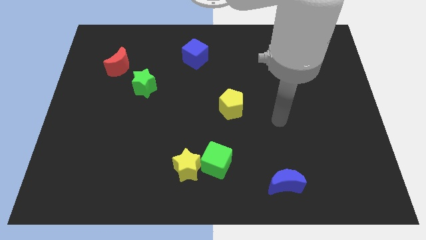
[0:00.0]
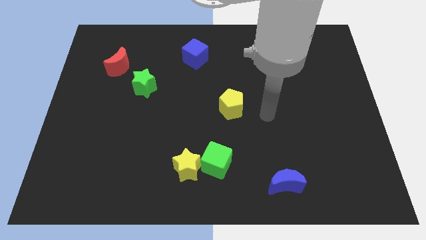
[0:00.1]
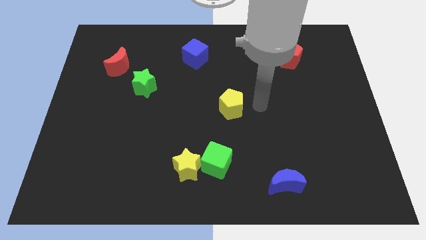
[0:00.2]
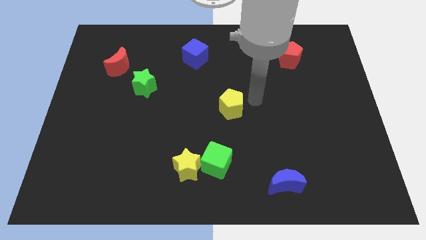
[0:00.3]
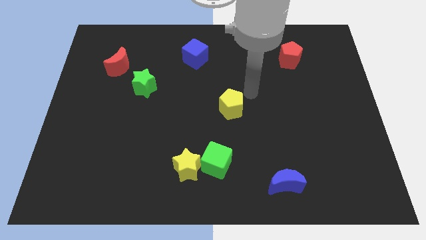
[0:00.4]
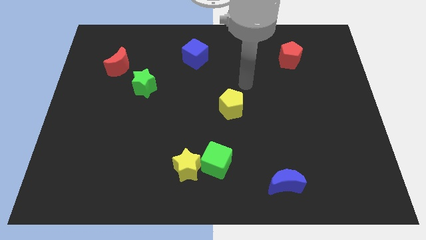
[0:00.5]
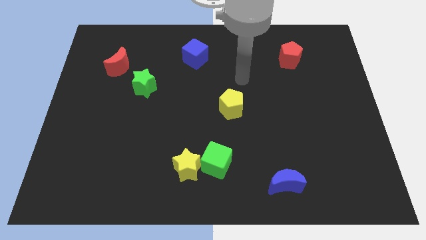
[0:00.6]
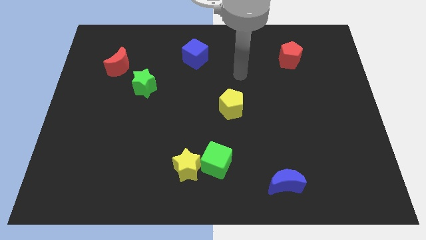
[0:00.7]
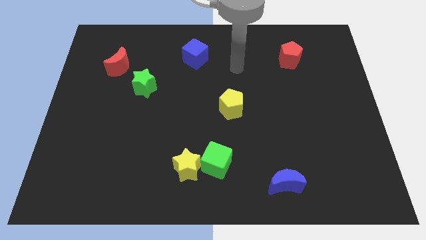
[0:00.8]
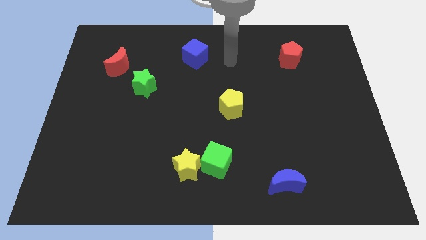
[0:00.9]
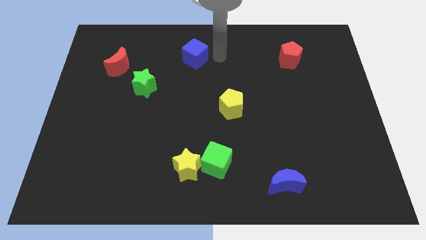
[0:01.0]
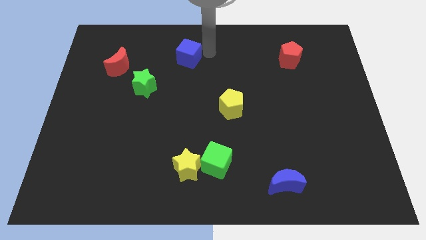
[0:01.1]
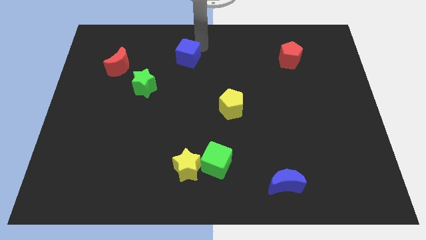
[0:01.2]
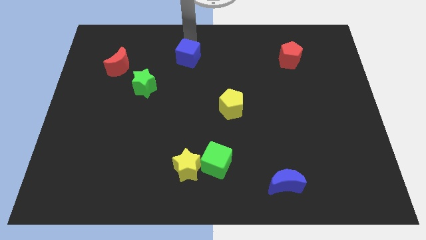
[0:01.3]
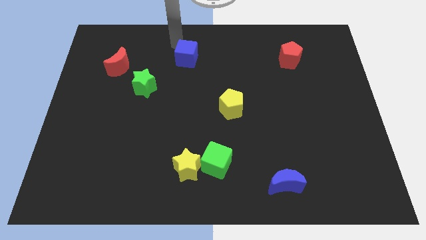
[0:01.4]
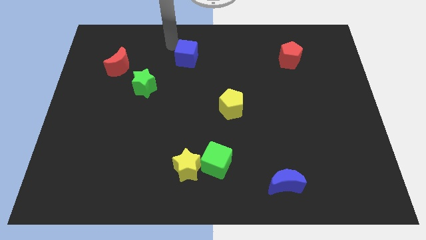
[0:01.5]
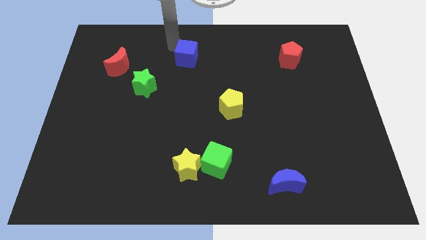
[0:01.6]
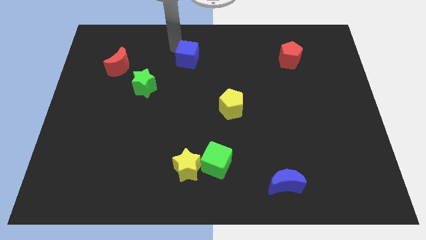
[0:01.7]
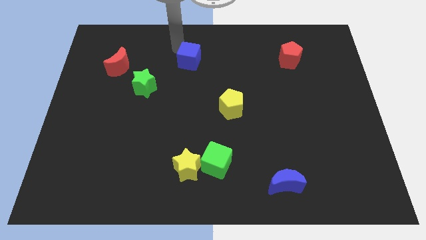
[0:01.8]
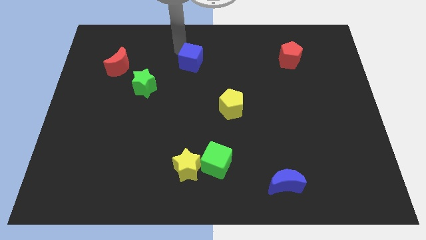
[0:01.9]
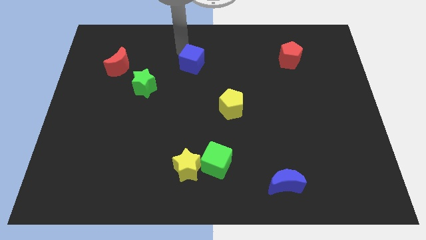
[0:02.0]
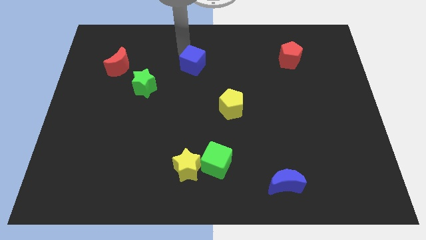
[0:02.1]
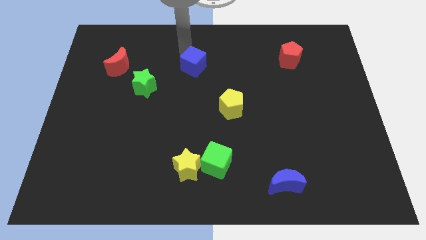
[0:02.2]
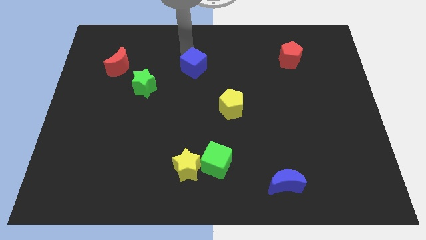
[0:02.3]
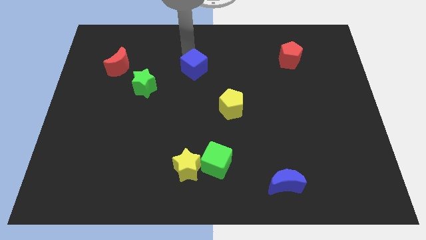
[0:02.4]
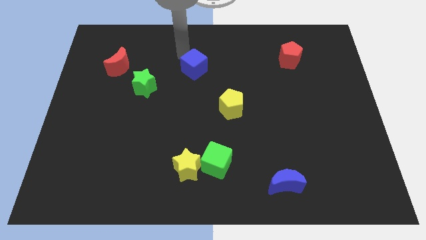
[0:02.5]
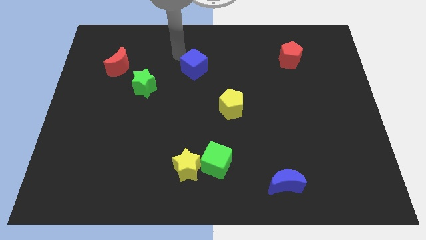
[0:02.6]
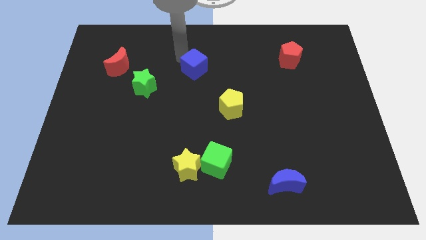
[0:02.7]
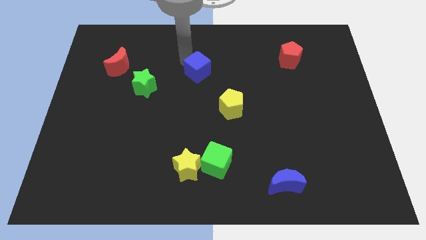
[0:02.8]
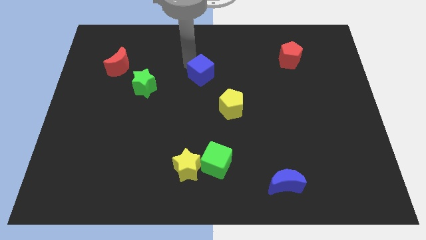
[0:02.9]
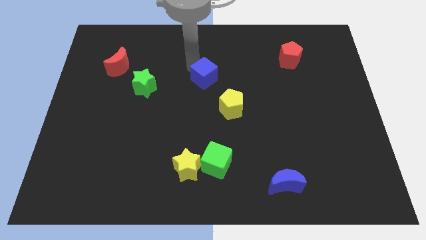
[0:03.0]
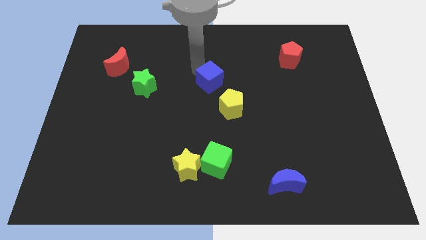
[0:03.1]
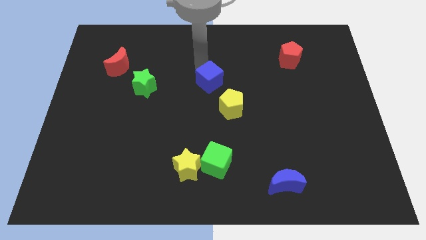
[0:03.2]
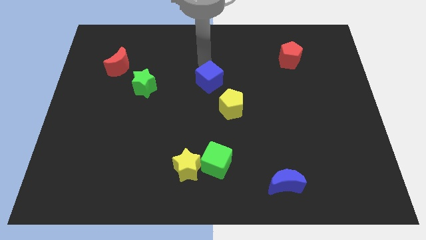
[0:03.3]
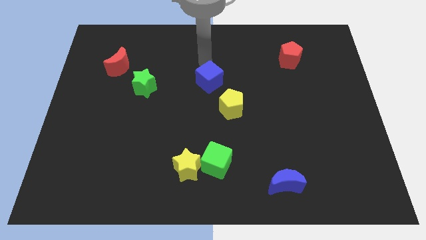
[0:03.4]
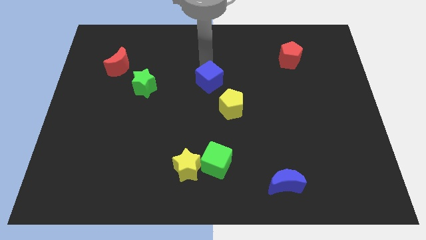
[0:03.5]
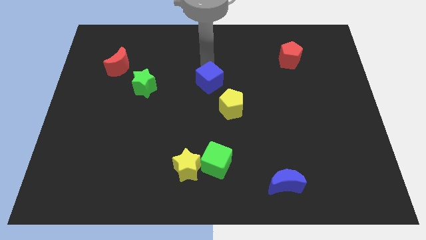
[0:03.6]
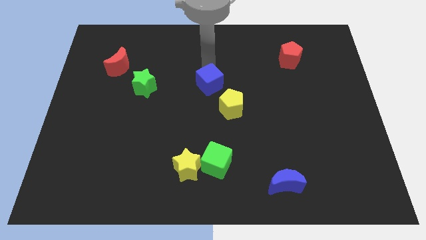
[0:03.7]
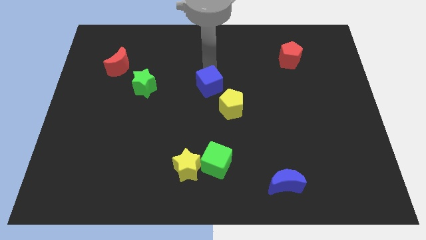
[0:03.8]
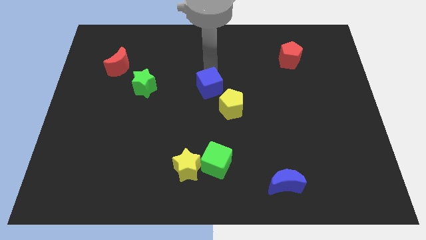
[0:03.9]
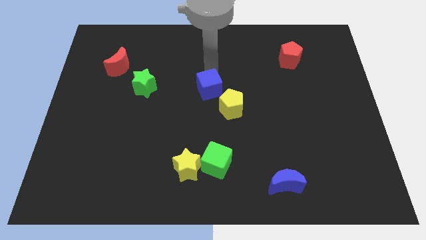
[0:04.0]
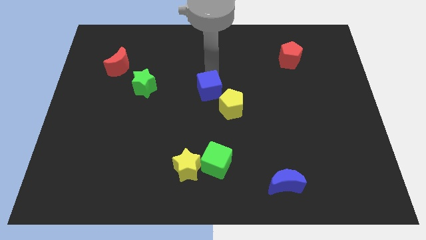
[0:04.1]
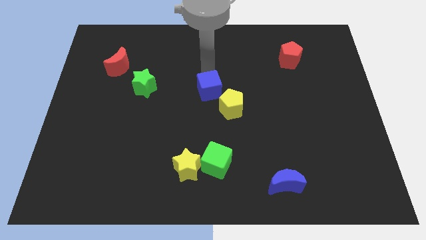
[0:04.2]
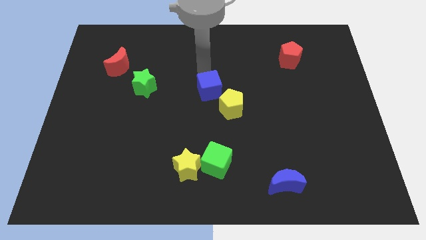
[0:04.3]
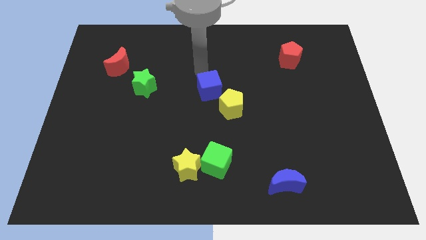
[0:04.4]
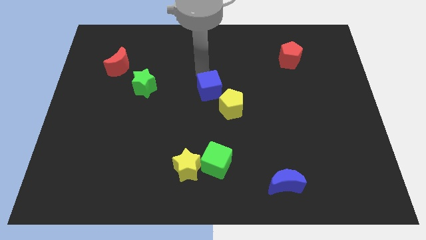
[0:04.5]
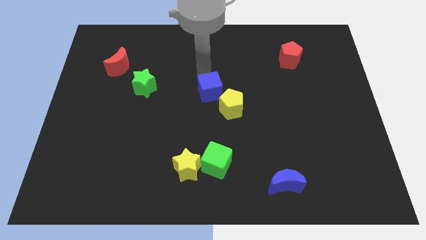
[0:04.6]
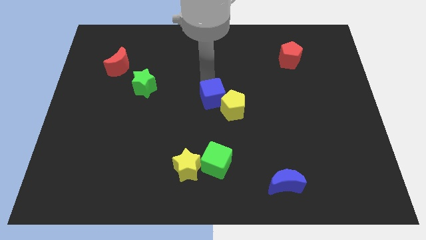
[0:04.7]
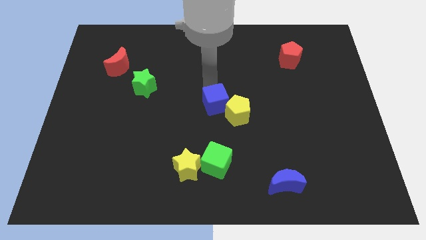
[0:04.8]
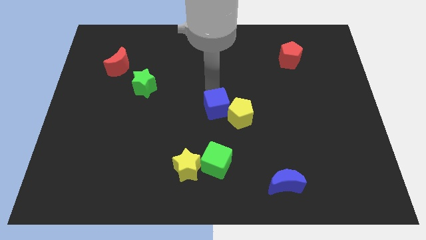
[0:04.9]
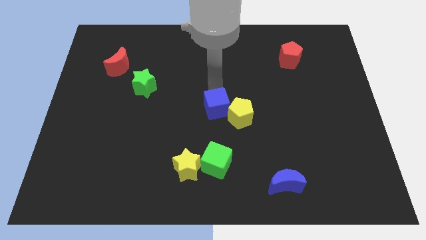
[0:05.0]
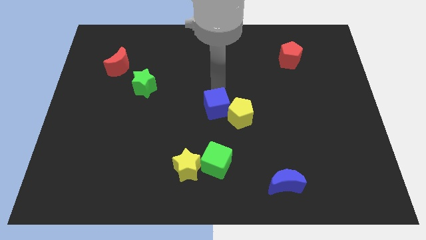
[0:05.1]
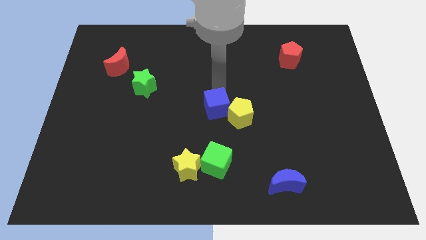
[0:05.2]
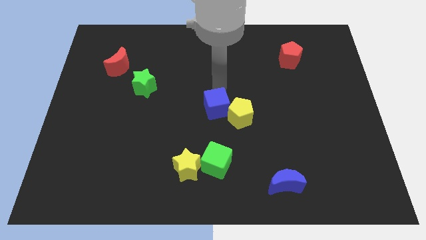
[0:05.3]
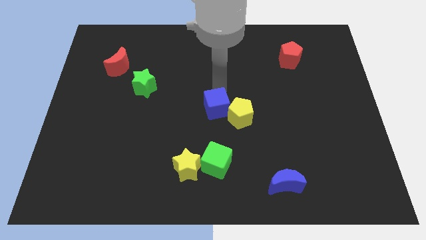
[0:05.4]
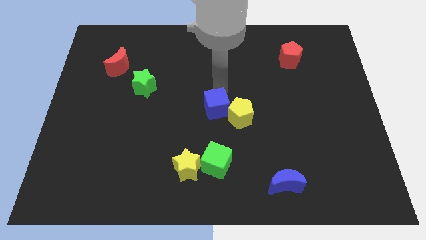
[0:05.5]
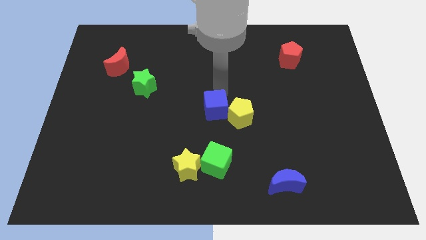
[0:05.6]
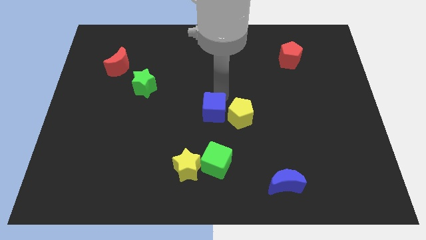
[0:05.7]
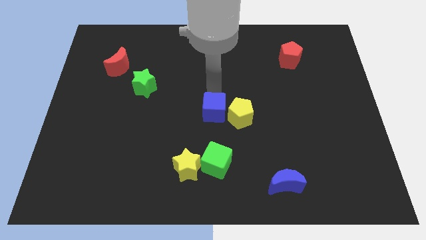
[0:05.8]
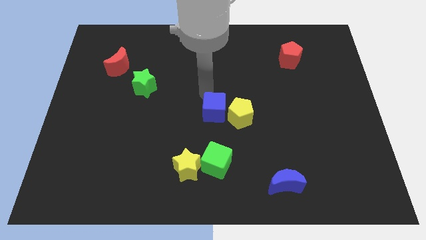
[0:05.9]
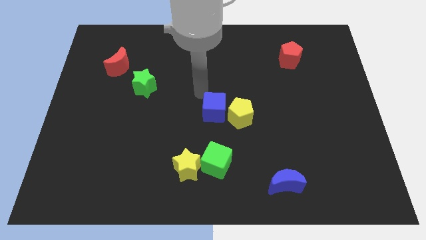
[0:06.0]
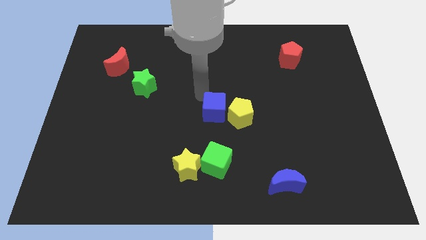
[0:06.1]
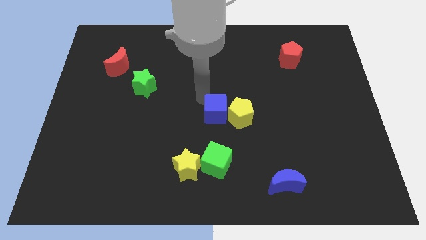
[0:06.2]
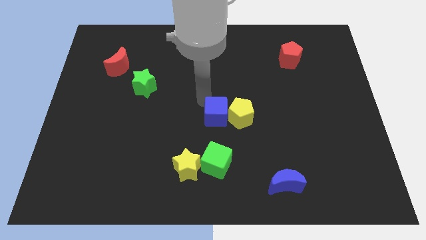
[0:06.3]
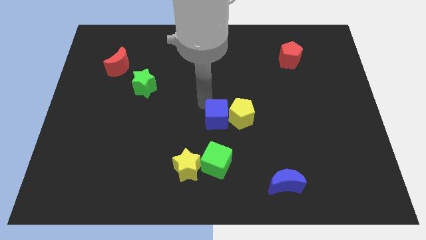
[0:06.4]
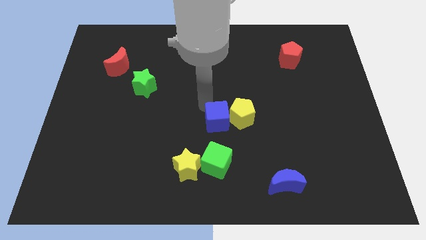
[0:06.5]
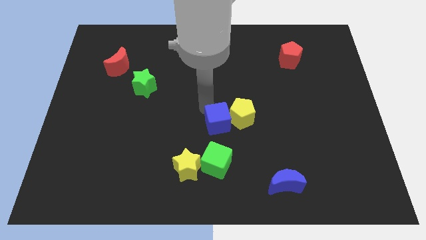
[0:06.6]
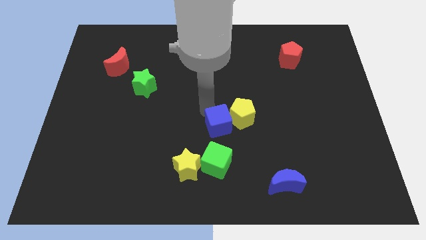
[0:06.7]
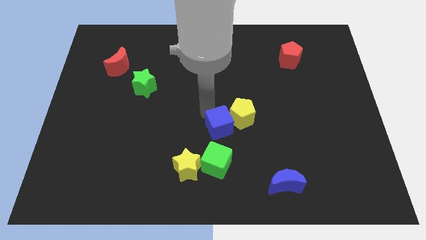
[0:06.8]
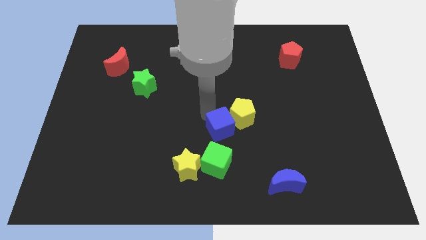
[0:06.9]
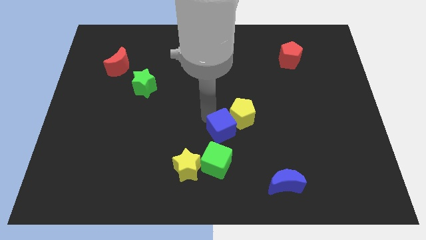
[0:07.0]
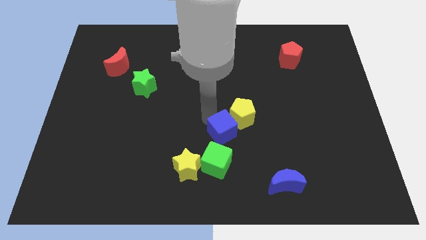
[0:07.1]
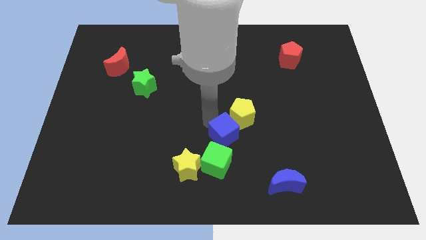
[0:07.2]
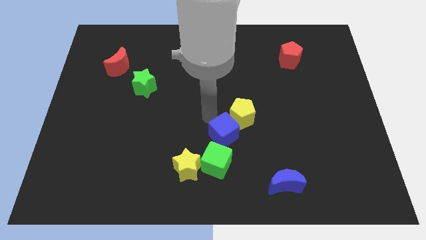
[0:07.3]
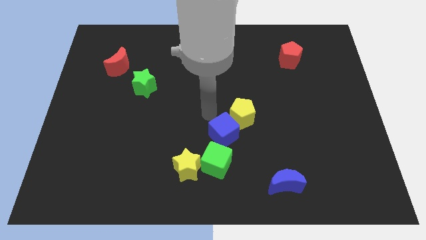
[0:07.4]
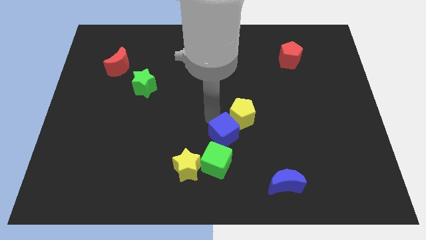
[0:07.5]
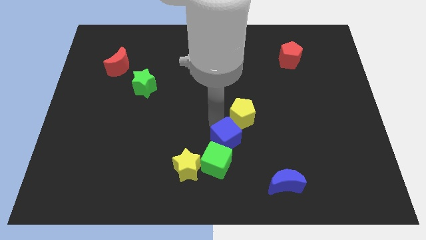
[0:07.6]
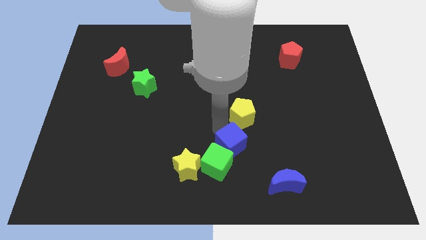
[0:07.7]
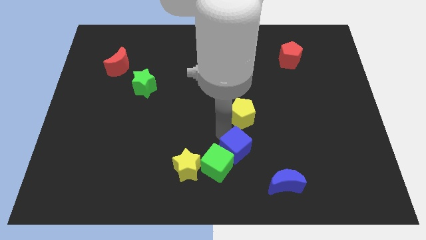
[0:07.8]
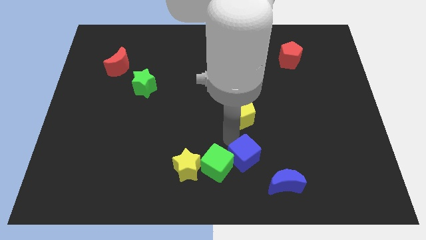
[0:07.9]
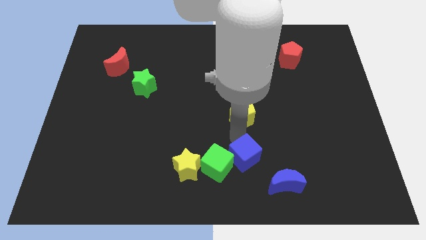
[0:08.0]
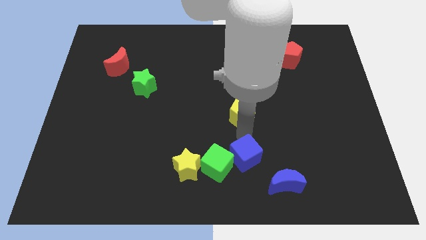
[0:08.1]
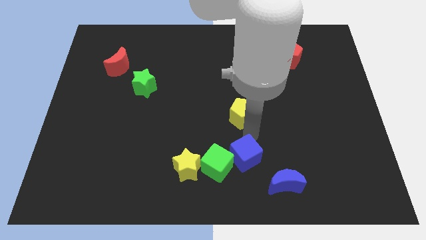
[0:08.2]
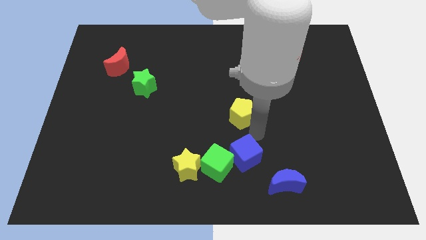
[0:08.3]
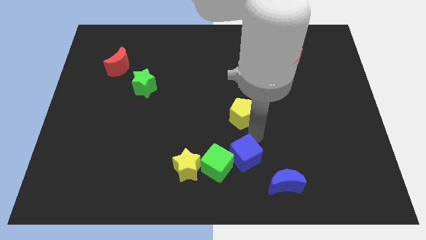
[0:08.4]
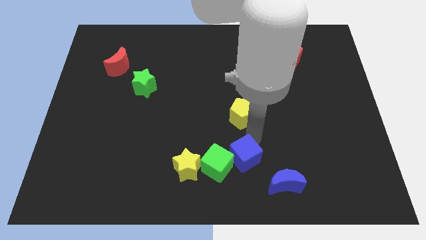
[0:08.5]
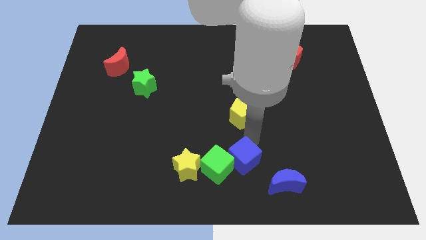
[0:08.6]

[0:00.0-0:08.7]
slide the blue cube to the bottom side
